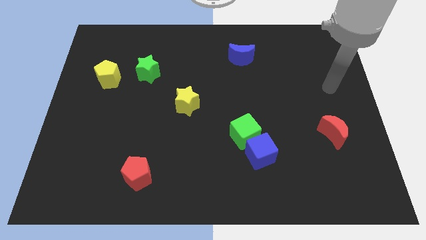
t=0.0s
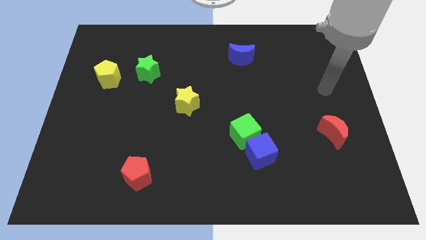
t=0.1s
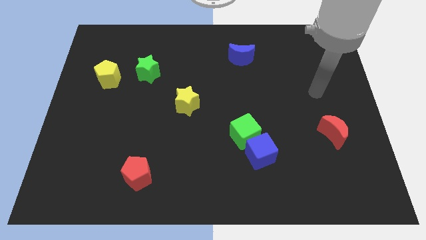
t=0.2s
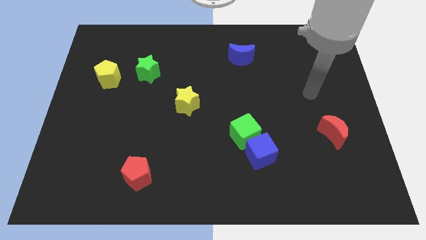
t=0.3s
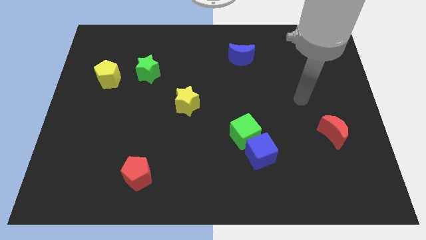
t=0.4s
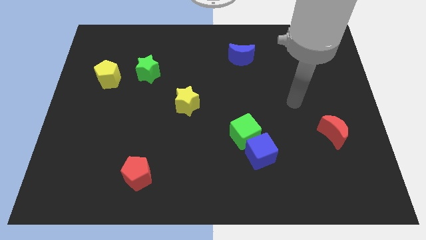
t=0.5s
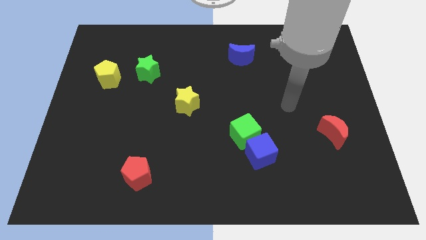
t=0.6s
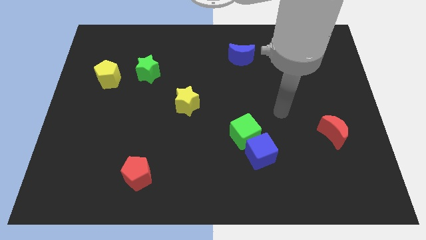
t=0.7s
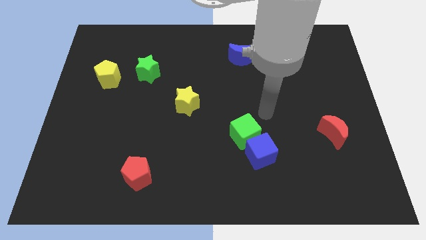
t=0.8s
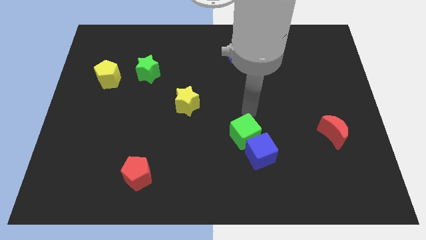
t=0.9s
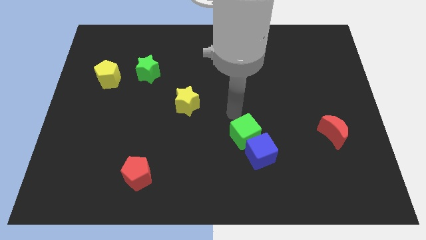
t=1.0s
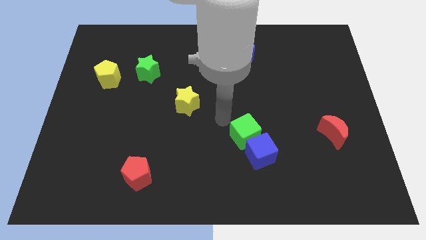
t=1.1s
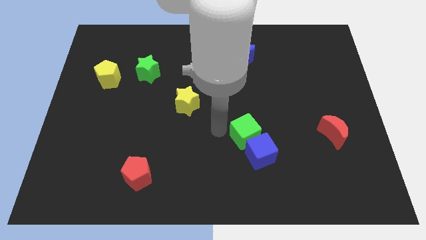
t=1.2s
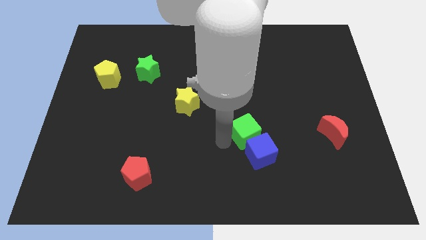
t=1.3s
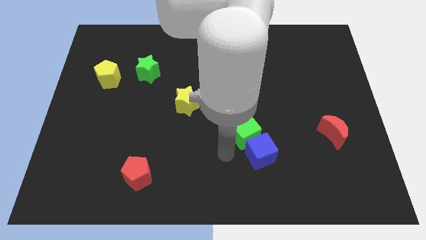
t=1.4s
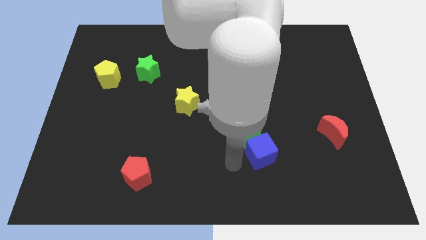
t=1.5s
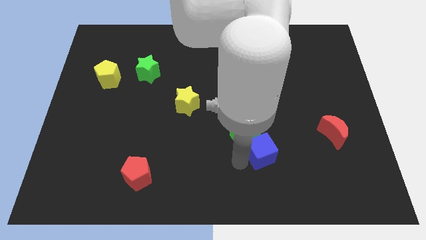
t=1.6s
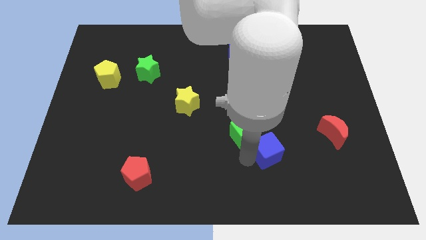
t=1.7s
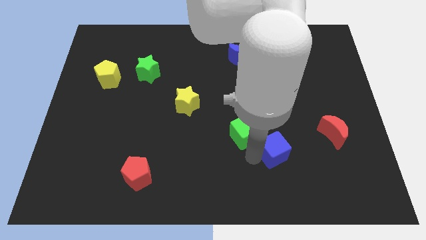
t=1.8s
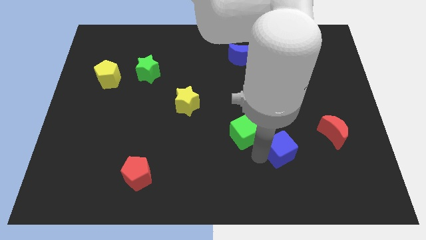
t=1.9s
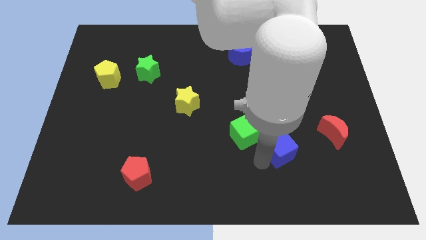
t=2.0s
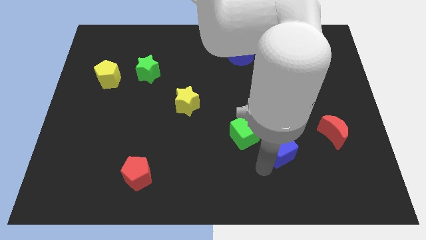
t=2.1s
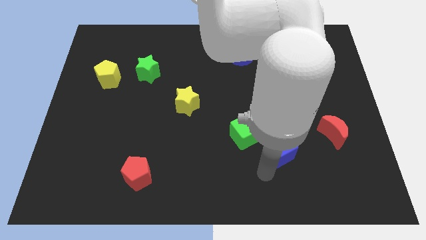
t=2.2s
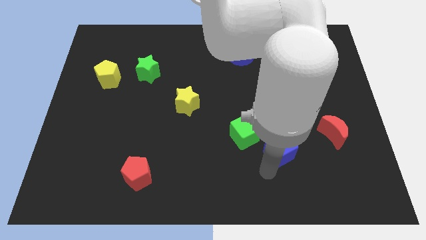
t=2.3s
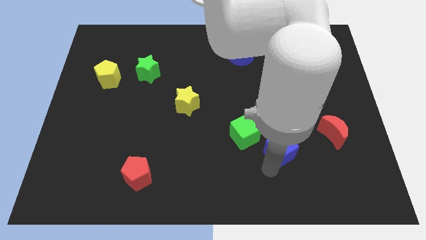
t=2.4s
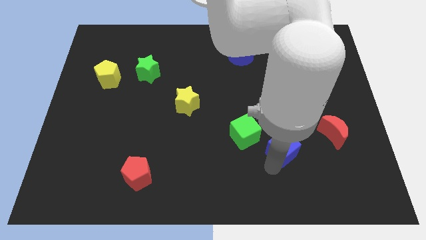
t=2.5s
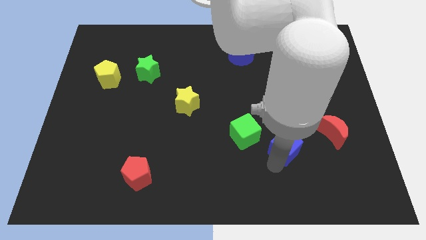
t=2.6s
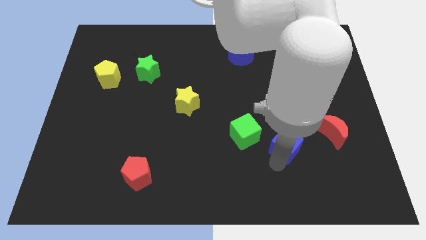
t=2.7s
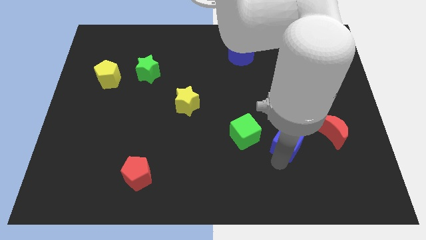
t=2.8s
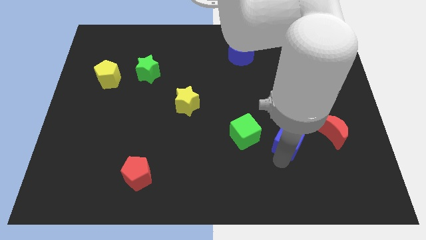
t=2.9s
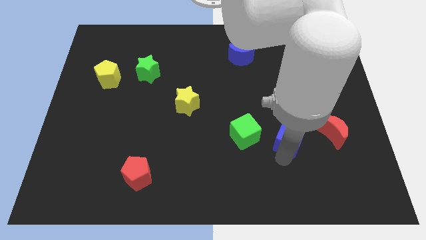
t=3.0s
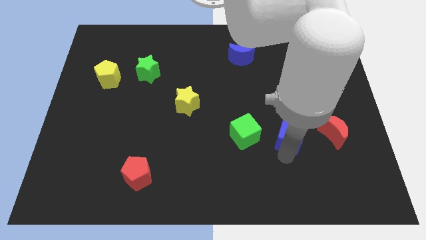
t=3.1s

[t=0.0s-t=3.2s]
push the blue cube diagonally upwards and to the right a little bit

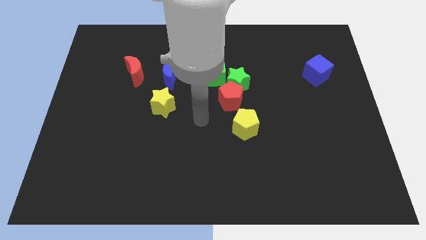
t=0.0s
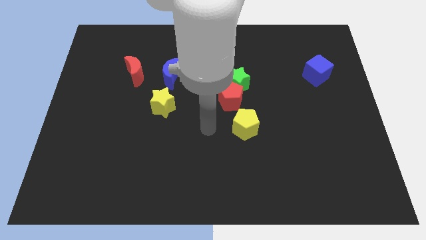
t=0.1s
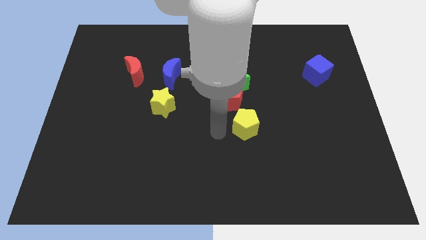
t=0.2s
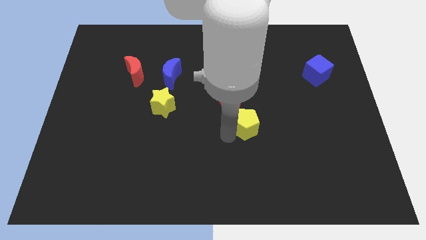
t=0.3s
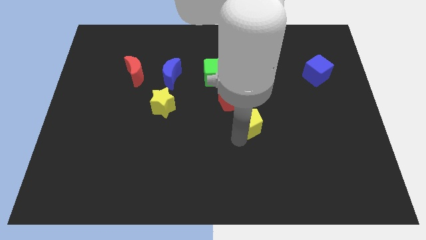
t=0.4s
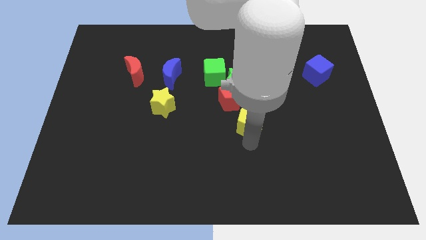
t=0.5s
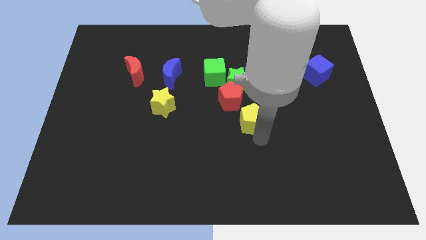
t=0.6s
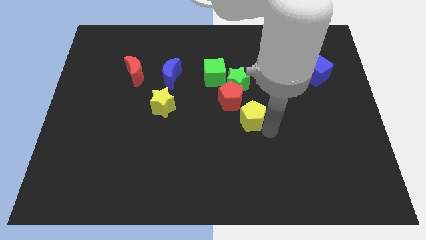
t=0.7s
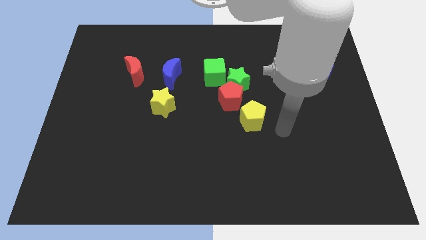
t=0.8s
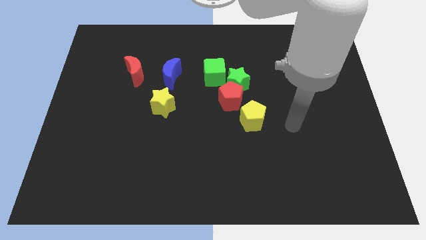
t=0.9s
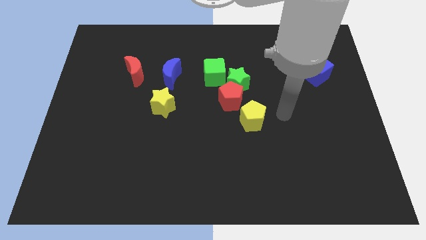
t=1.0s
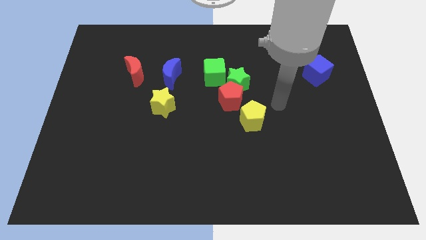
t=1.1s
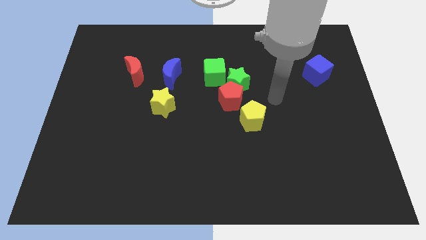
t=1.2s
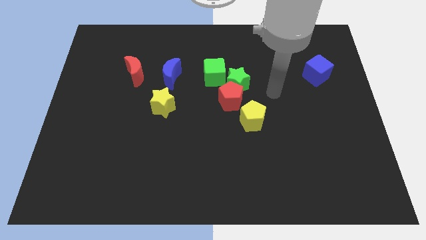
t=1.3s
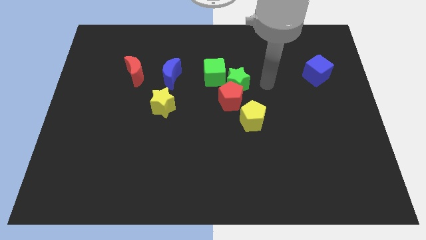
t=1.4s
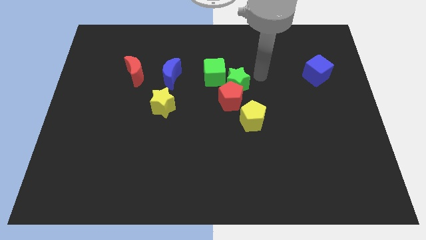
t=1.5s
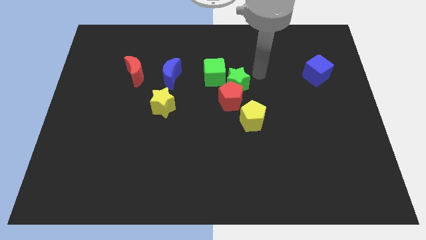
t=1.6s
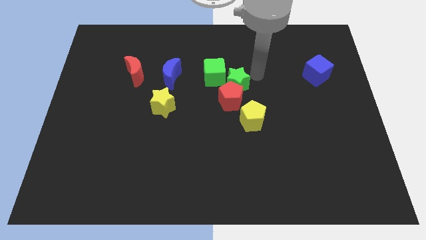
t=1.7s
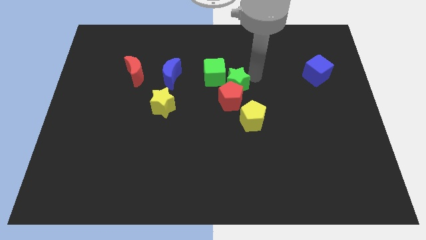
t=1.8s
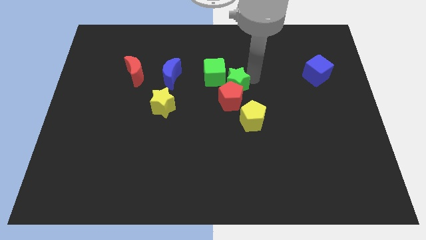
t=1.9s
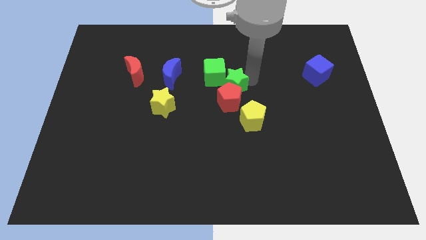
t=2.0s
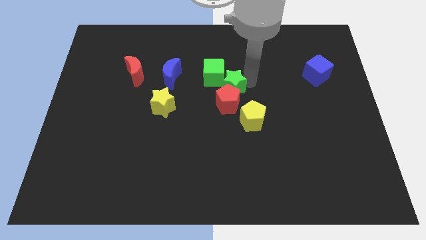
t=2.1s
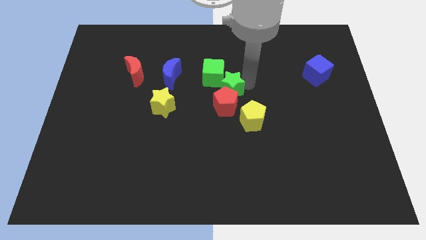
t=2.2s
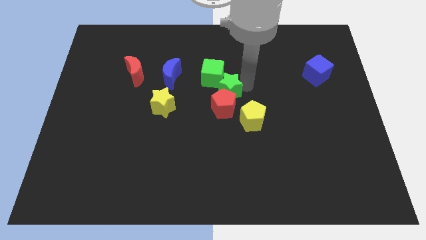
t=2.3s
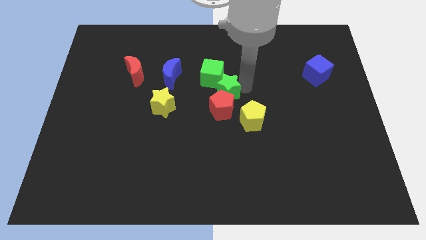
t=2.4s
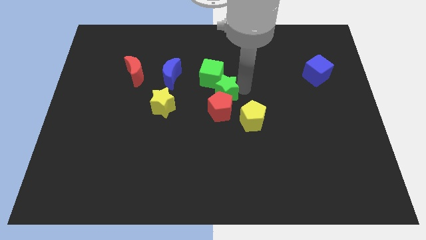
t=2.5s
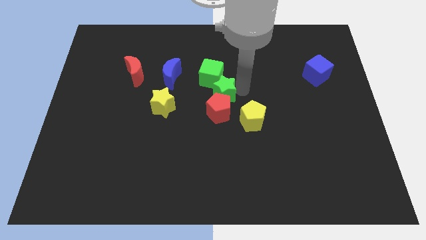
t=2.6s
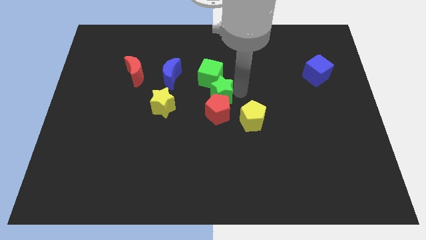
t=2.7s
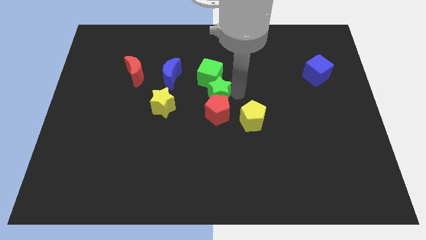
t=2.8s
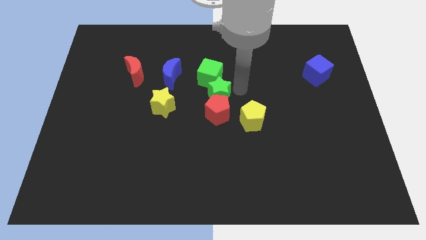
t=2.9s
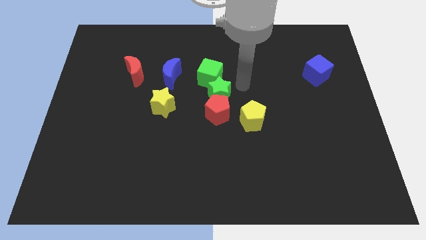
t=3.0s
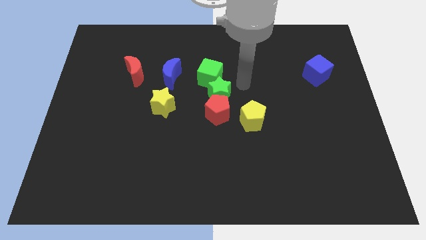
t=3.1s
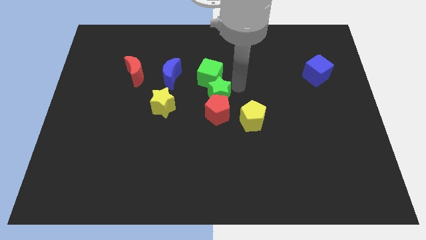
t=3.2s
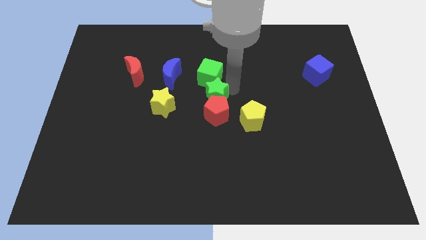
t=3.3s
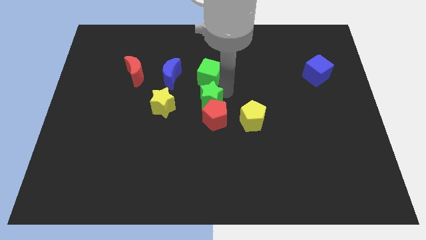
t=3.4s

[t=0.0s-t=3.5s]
slightly slide the green star diagonally down and left

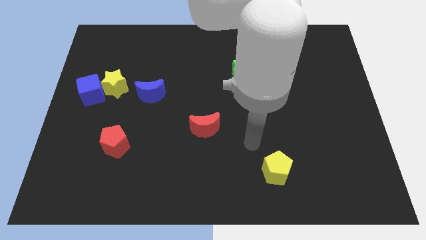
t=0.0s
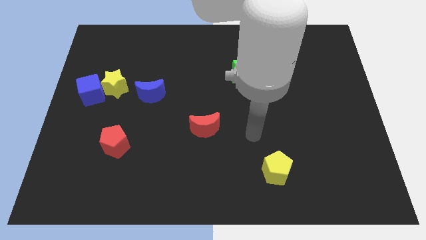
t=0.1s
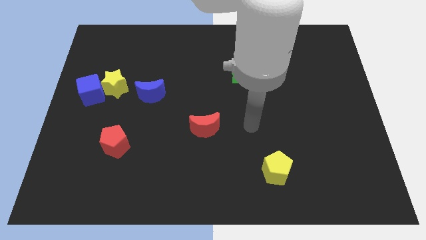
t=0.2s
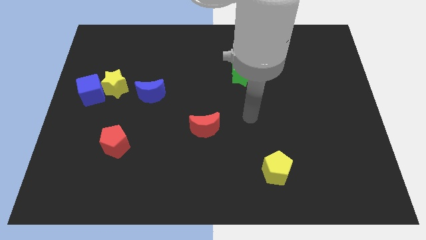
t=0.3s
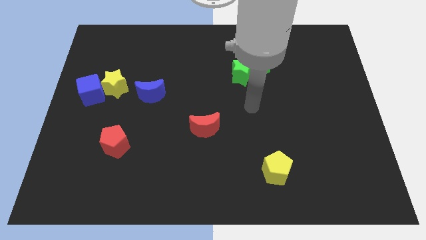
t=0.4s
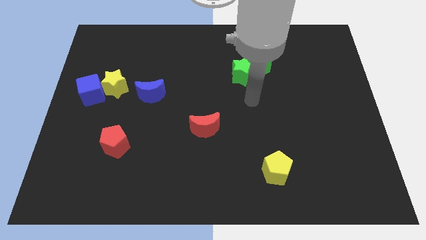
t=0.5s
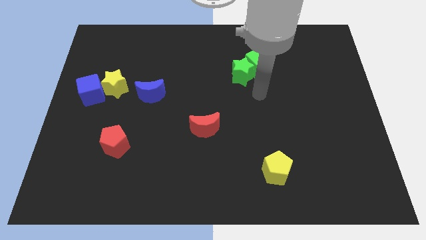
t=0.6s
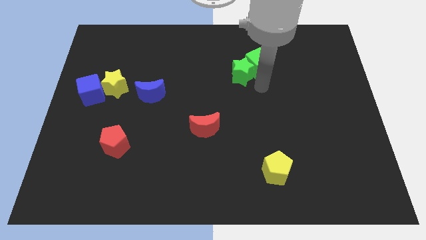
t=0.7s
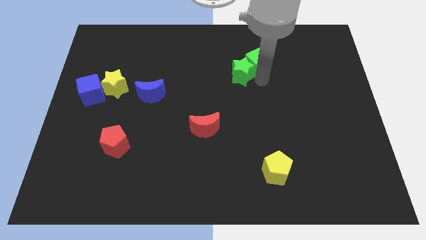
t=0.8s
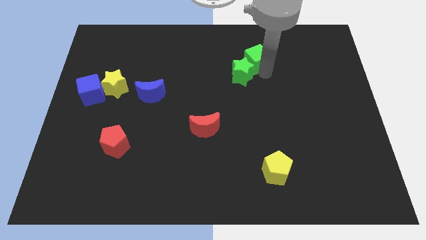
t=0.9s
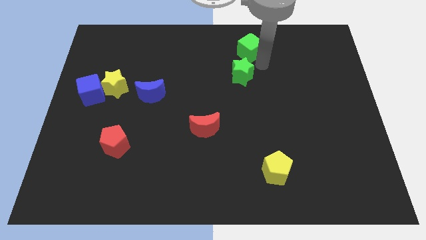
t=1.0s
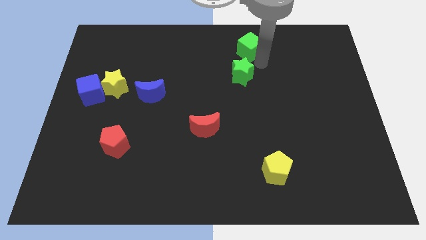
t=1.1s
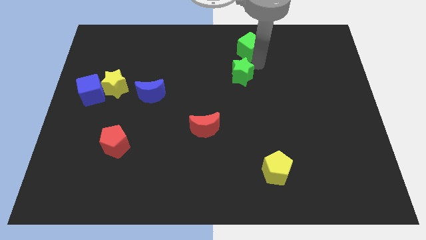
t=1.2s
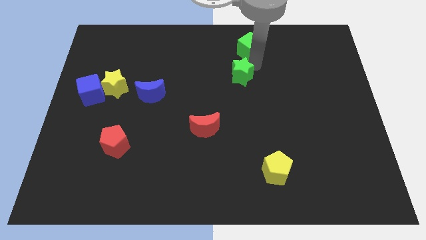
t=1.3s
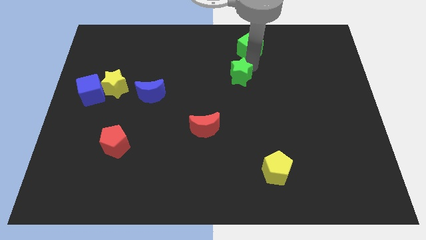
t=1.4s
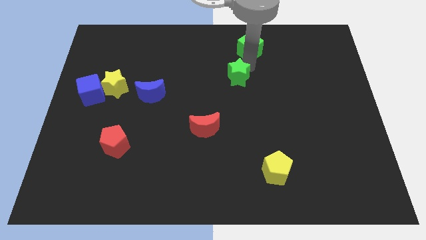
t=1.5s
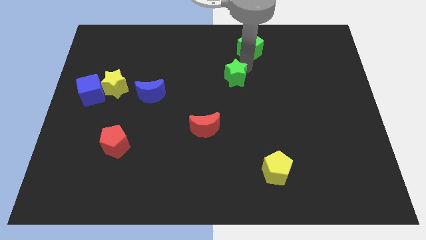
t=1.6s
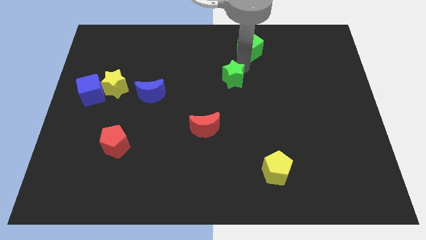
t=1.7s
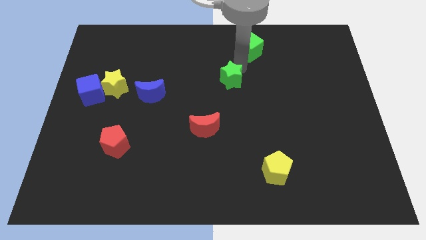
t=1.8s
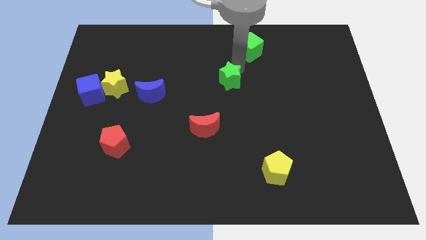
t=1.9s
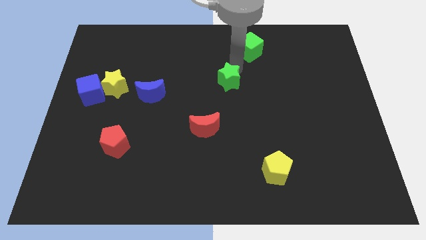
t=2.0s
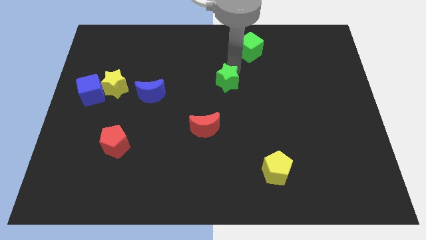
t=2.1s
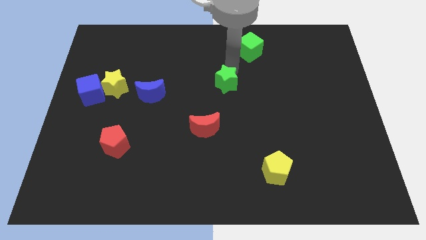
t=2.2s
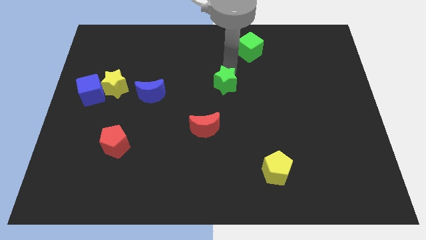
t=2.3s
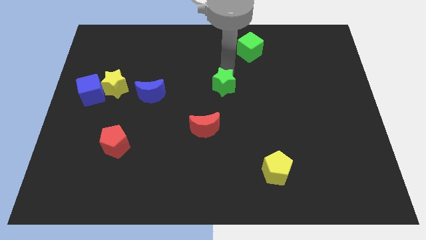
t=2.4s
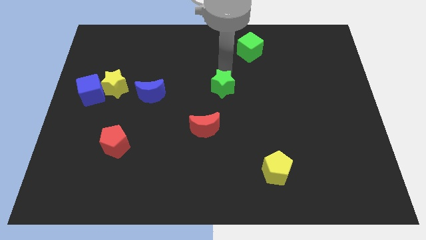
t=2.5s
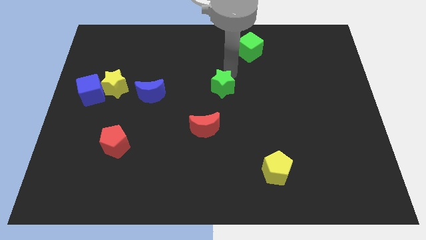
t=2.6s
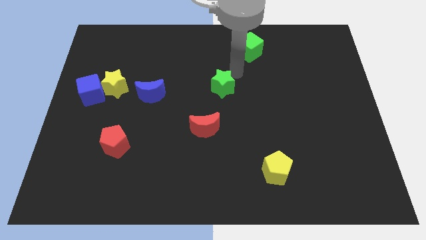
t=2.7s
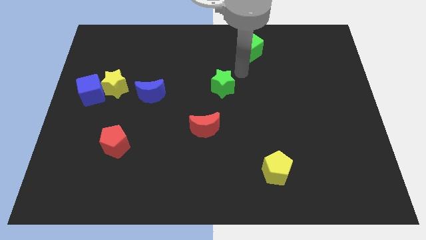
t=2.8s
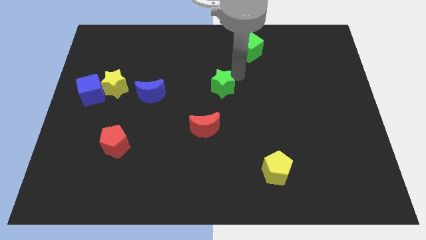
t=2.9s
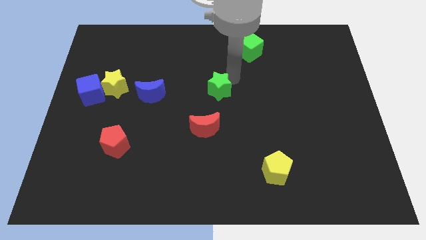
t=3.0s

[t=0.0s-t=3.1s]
move the green star diagonally downwards and to the left somewhat
